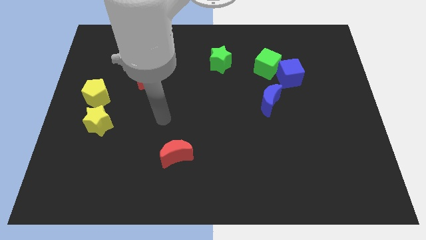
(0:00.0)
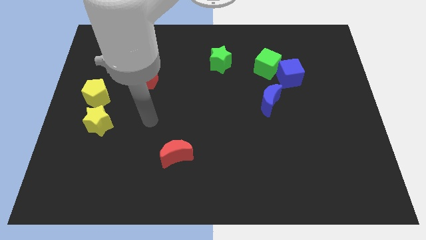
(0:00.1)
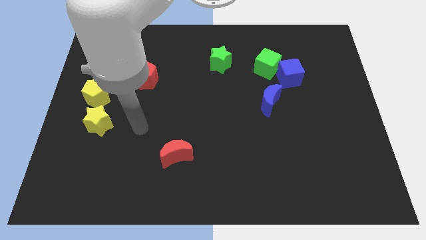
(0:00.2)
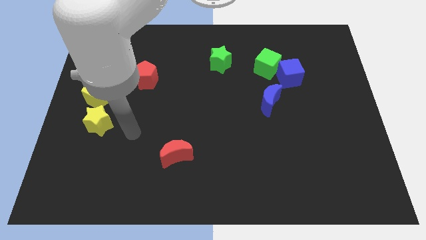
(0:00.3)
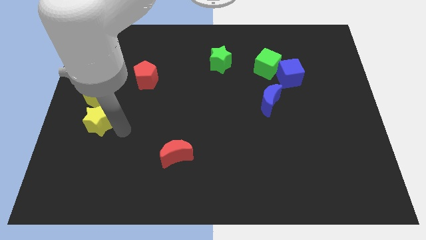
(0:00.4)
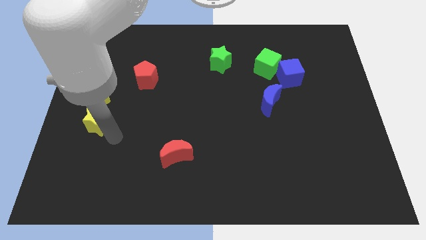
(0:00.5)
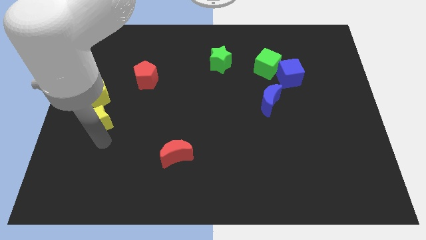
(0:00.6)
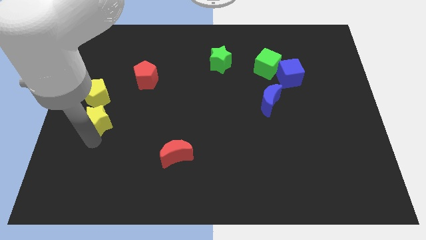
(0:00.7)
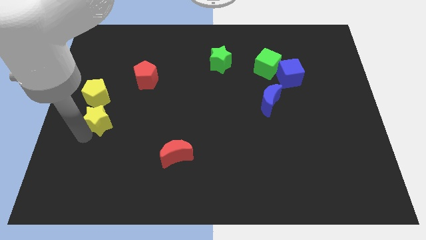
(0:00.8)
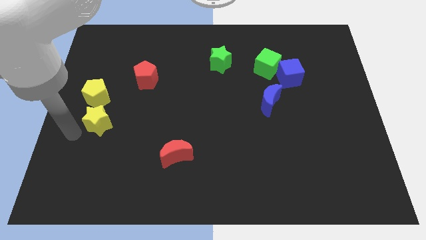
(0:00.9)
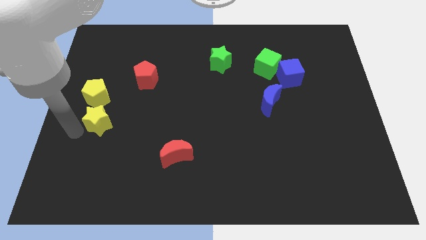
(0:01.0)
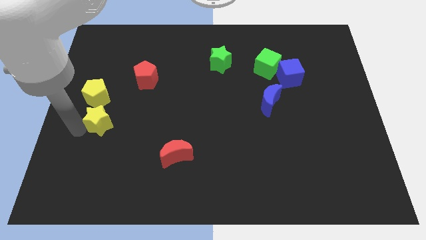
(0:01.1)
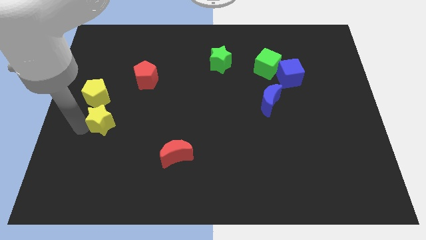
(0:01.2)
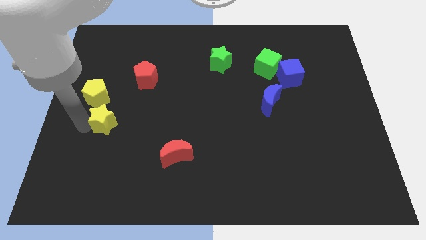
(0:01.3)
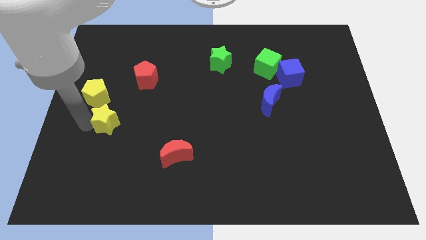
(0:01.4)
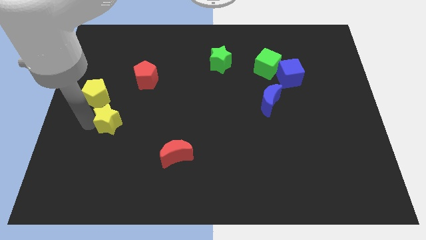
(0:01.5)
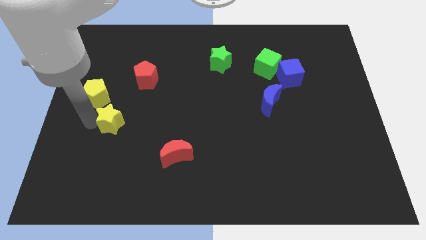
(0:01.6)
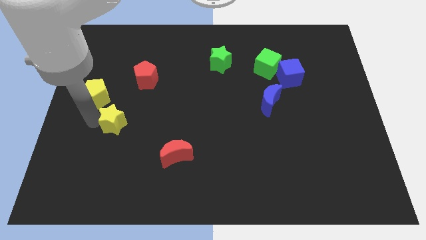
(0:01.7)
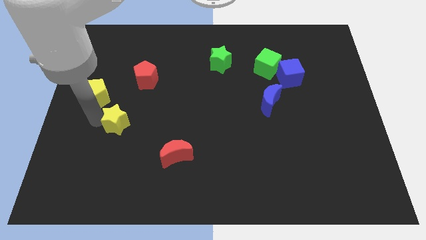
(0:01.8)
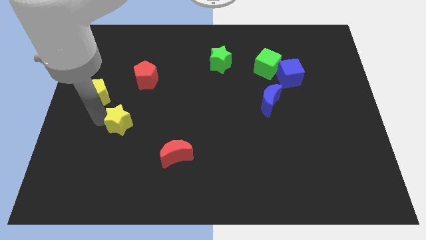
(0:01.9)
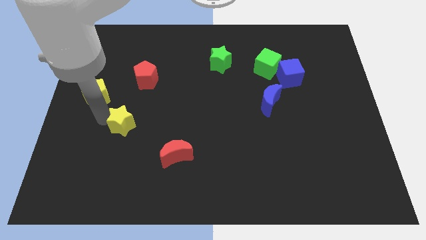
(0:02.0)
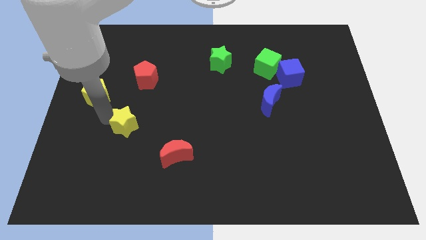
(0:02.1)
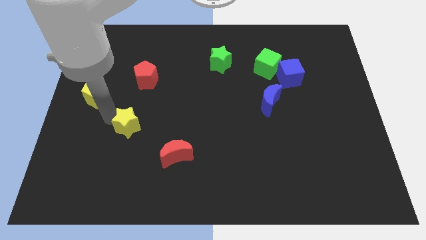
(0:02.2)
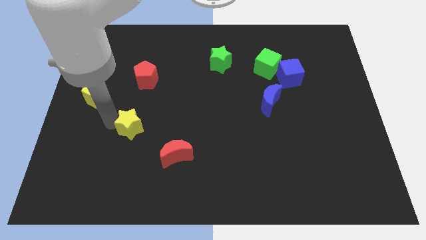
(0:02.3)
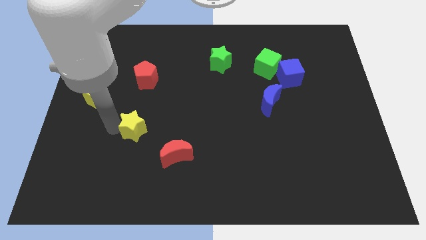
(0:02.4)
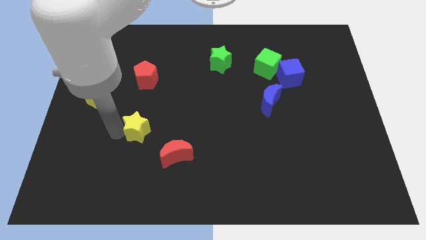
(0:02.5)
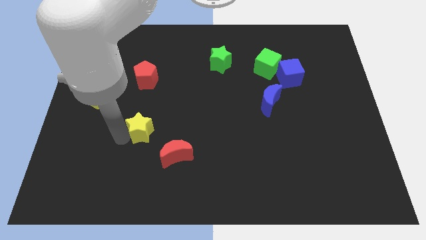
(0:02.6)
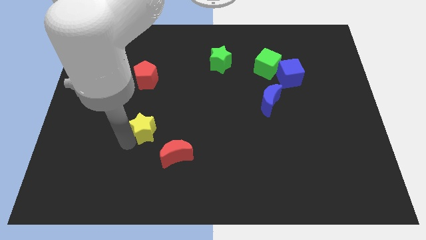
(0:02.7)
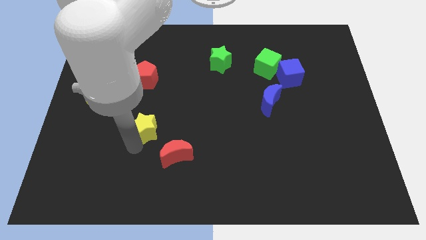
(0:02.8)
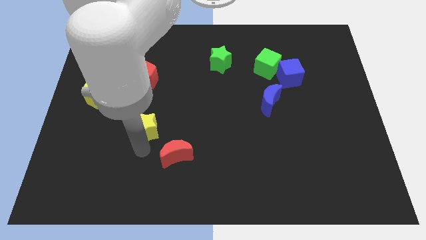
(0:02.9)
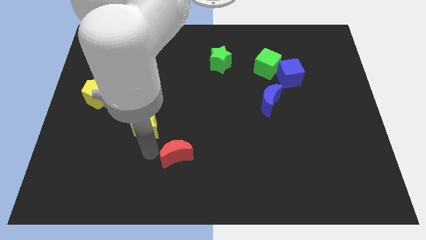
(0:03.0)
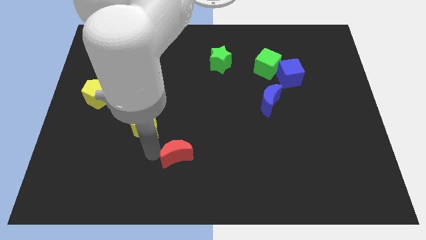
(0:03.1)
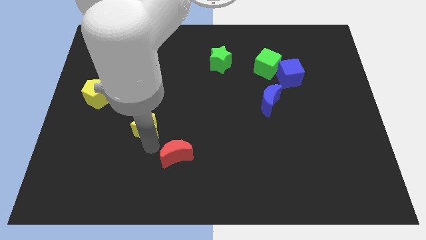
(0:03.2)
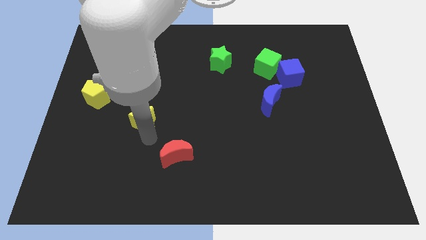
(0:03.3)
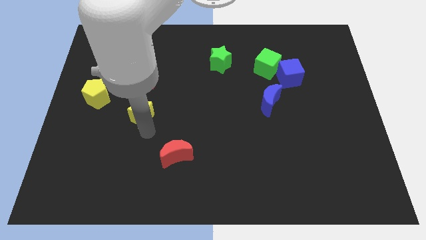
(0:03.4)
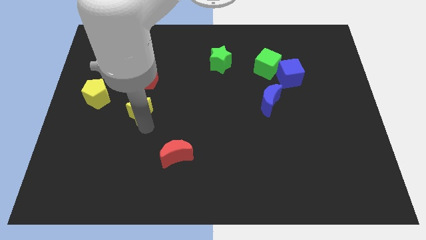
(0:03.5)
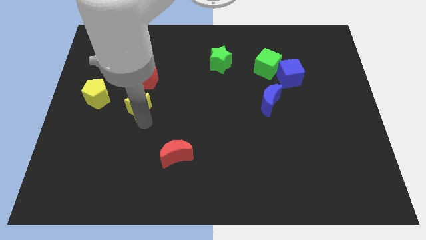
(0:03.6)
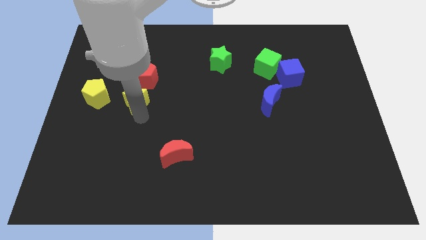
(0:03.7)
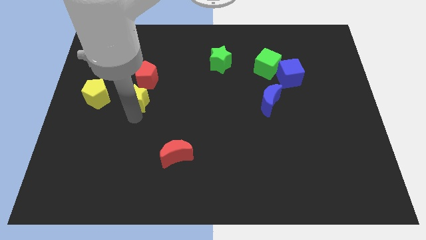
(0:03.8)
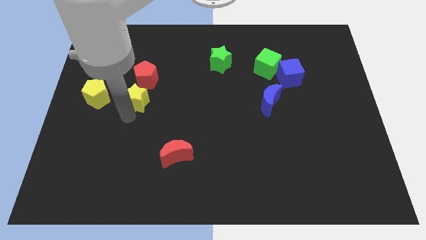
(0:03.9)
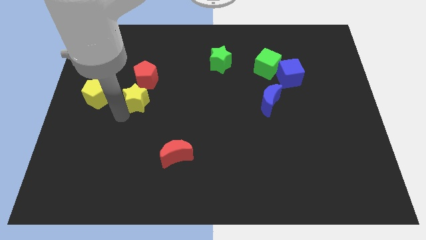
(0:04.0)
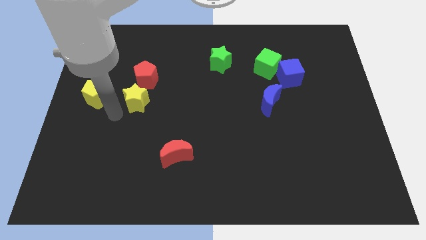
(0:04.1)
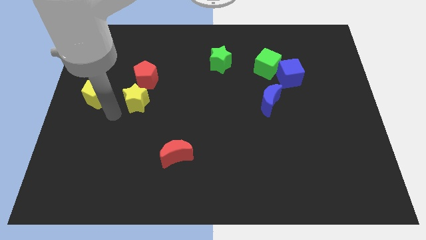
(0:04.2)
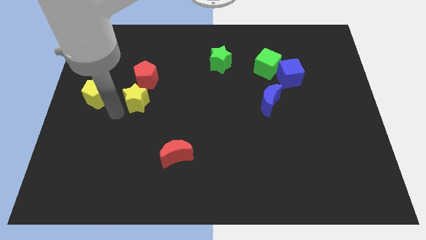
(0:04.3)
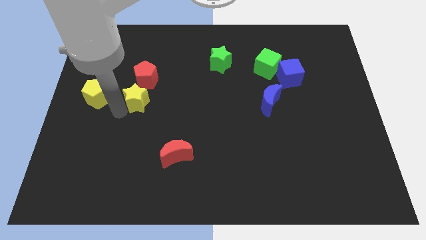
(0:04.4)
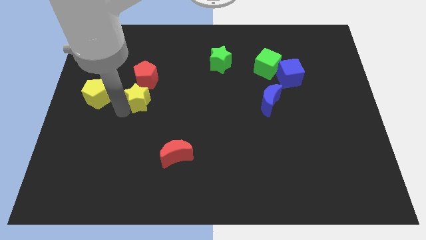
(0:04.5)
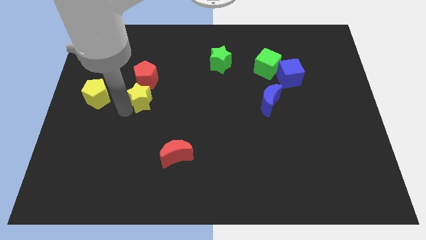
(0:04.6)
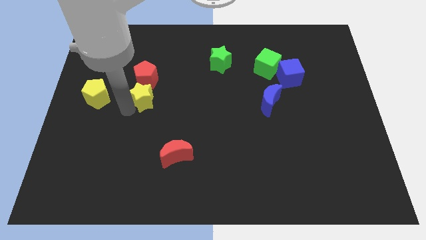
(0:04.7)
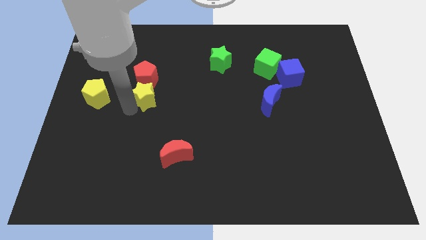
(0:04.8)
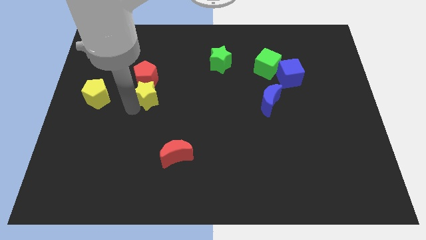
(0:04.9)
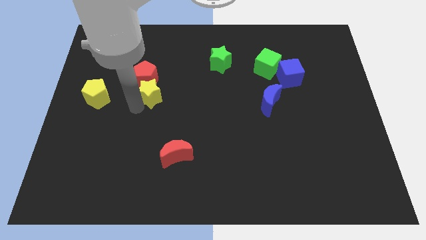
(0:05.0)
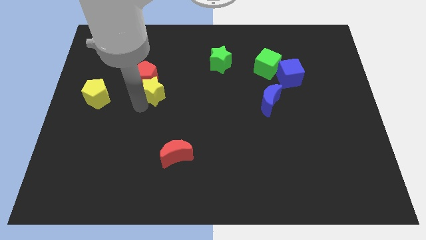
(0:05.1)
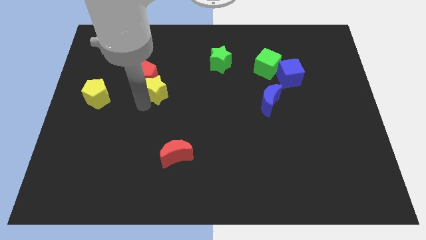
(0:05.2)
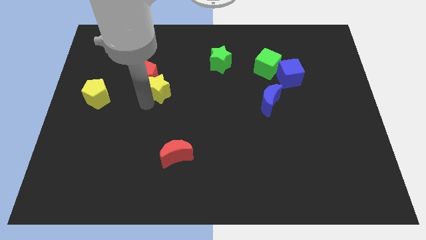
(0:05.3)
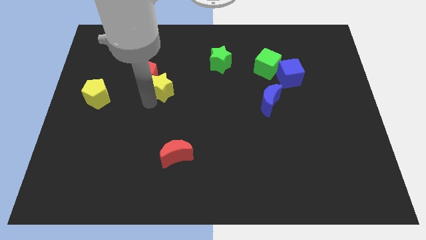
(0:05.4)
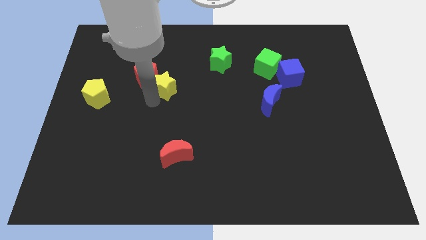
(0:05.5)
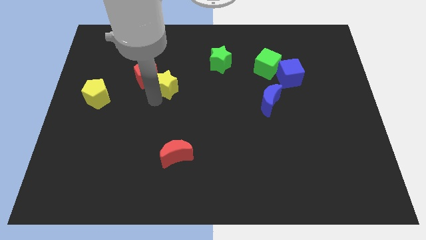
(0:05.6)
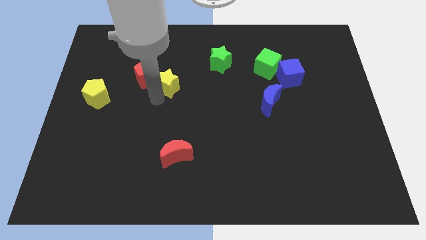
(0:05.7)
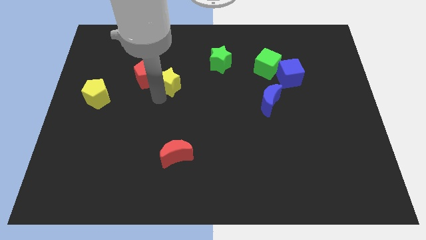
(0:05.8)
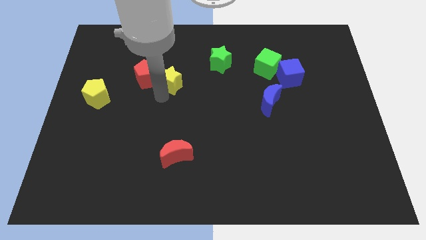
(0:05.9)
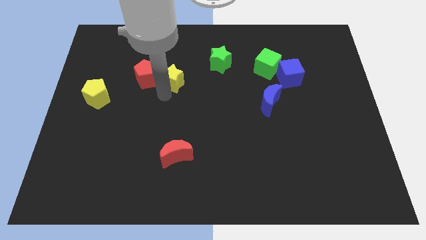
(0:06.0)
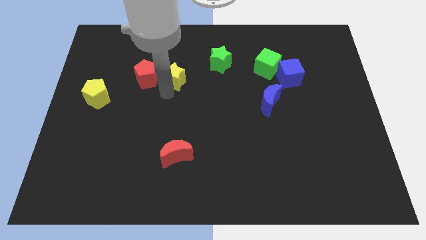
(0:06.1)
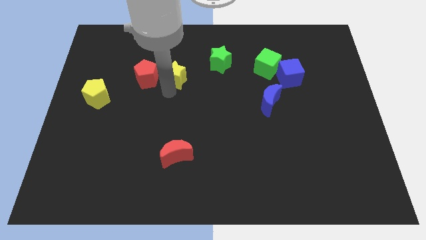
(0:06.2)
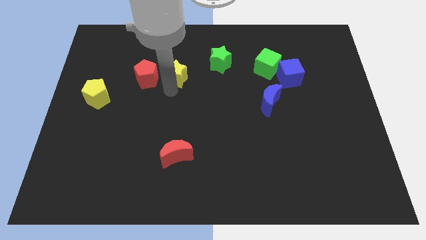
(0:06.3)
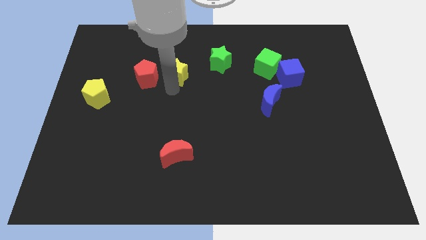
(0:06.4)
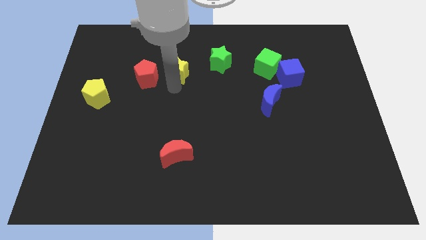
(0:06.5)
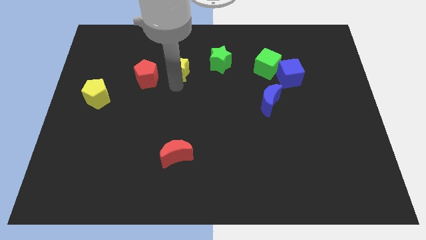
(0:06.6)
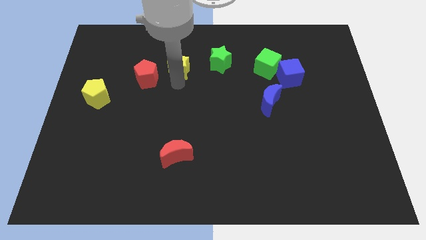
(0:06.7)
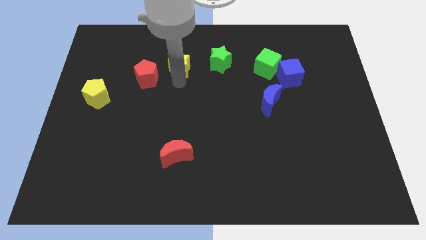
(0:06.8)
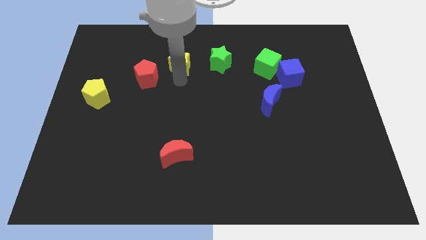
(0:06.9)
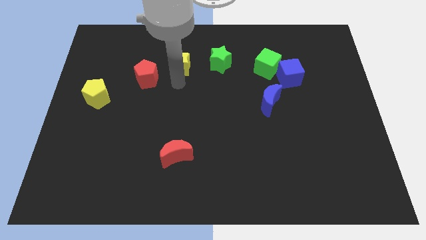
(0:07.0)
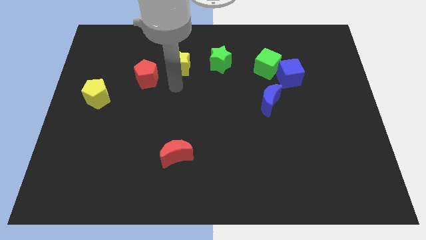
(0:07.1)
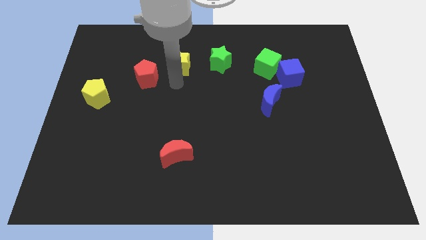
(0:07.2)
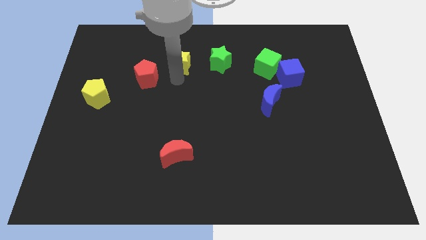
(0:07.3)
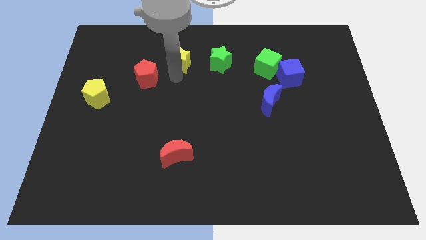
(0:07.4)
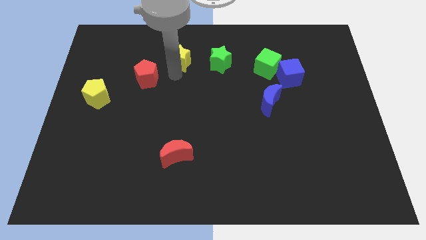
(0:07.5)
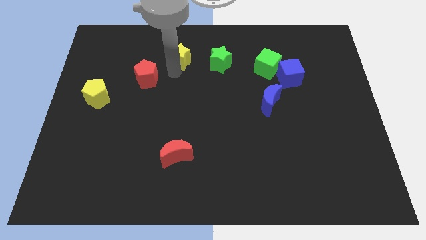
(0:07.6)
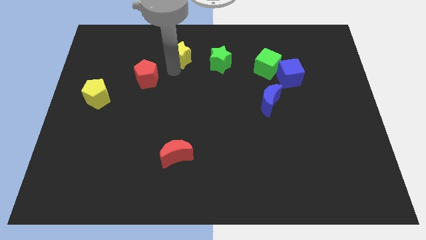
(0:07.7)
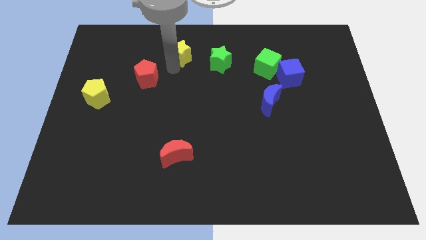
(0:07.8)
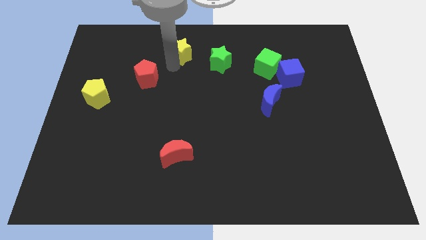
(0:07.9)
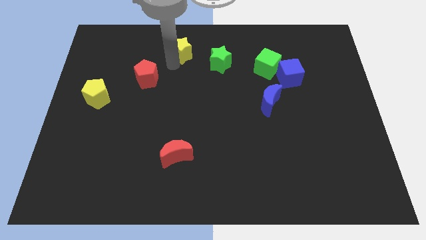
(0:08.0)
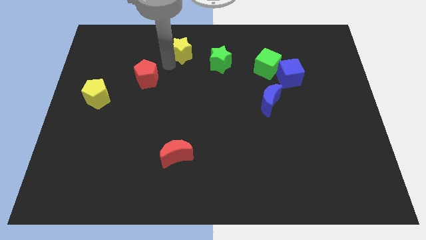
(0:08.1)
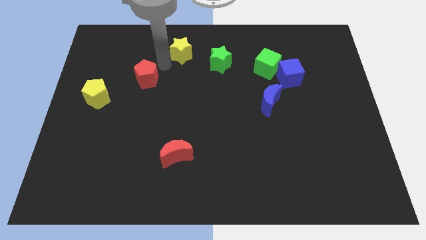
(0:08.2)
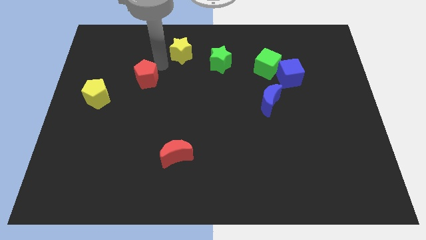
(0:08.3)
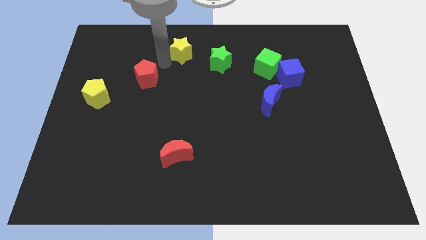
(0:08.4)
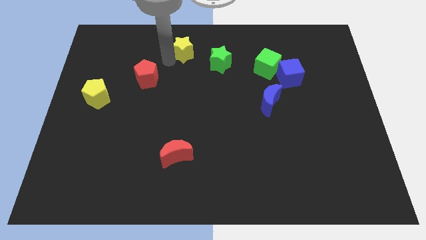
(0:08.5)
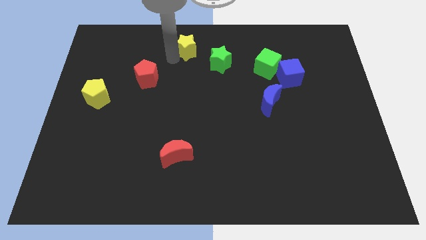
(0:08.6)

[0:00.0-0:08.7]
push the yellow star to the top side
